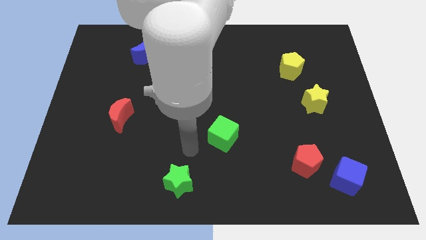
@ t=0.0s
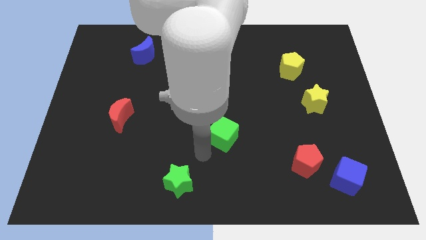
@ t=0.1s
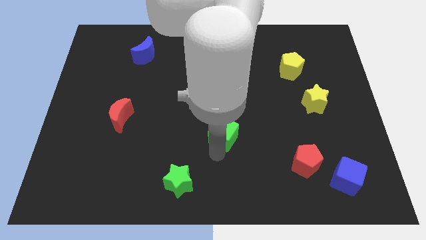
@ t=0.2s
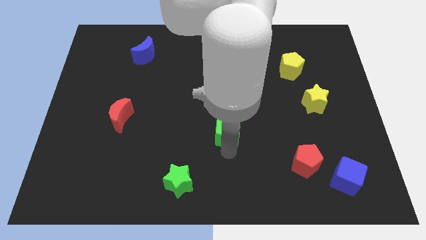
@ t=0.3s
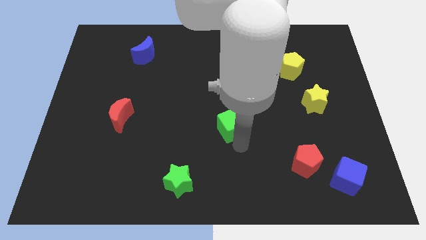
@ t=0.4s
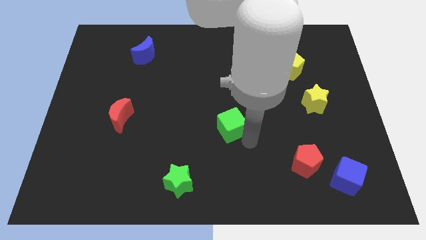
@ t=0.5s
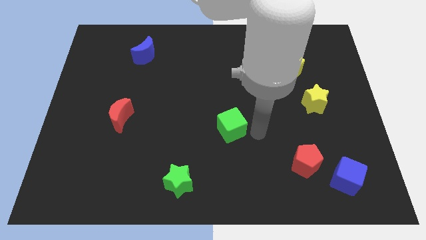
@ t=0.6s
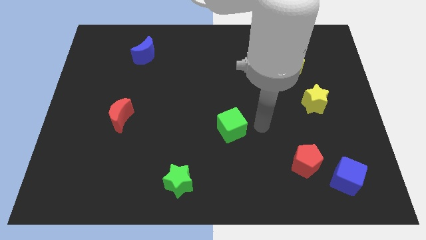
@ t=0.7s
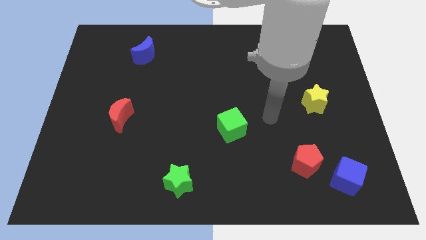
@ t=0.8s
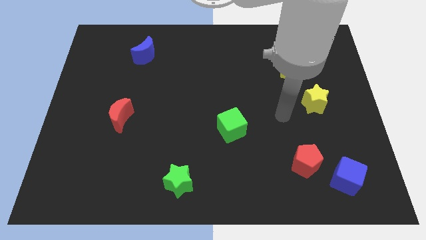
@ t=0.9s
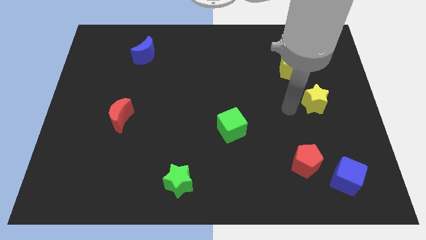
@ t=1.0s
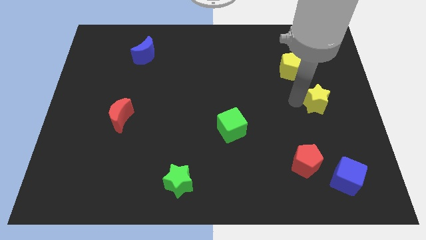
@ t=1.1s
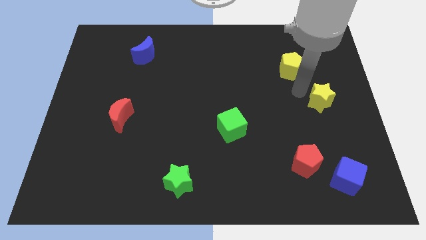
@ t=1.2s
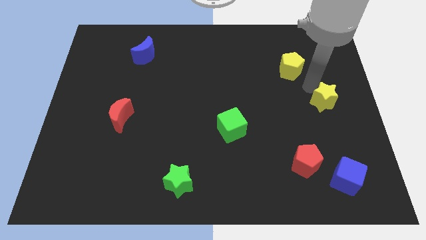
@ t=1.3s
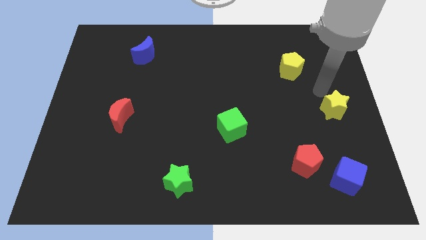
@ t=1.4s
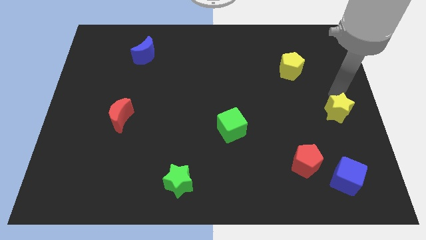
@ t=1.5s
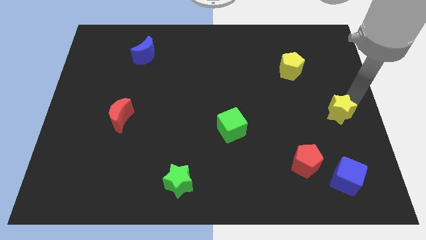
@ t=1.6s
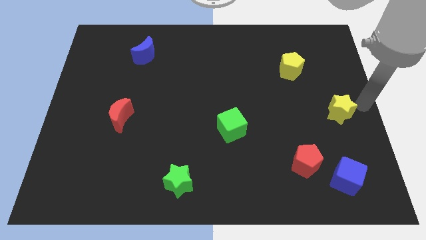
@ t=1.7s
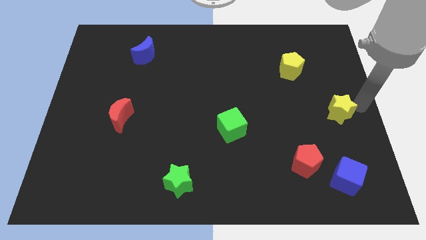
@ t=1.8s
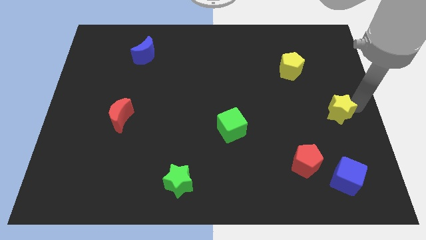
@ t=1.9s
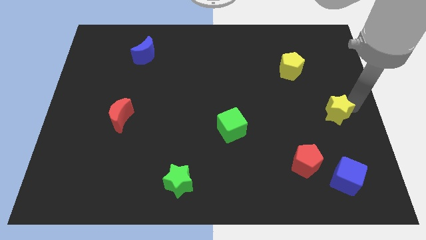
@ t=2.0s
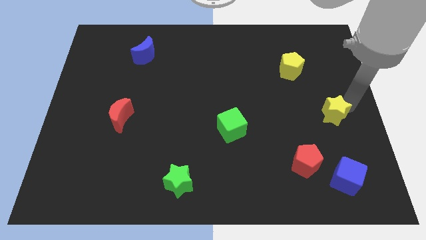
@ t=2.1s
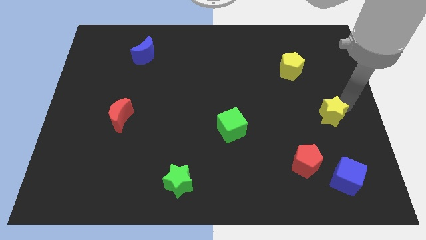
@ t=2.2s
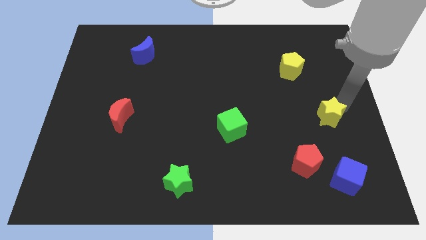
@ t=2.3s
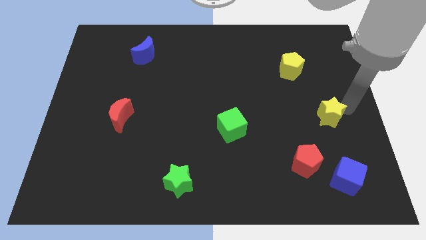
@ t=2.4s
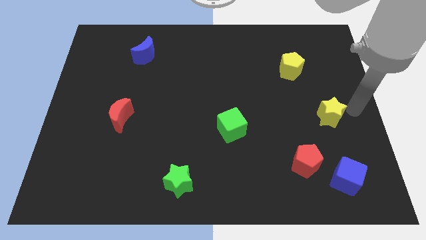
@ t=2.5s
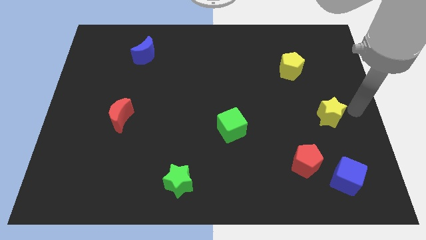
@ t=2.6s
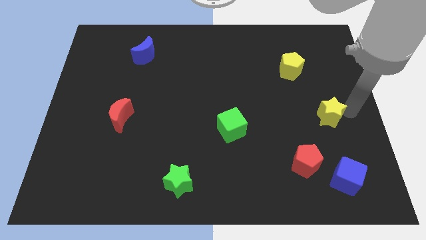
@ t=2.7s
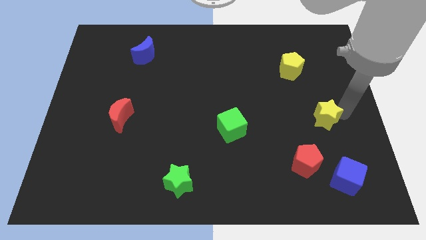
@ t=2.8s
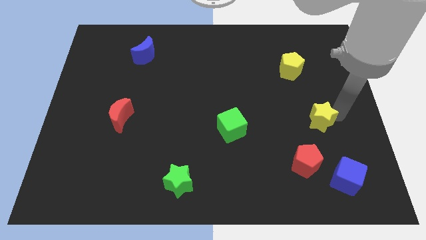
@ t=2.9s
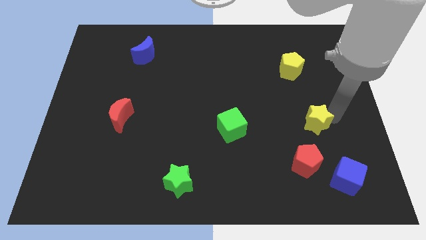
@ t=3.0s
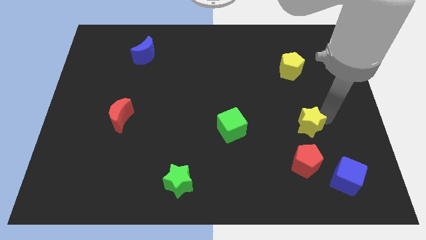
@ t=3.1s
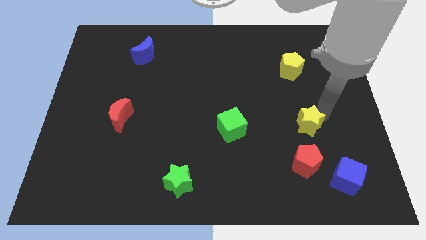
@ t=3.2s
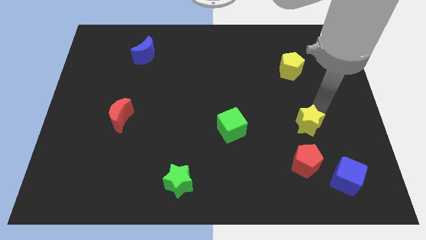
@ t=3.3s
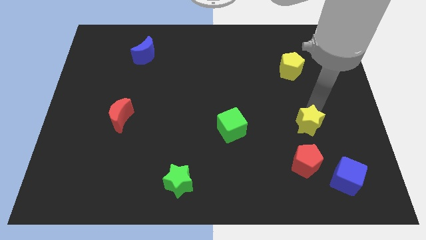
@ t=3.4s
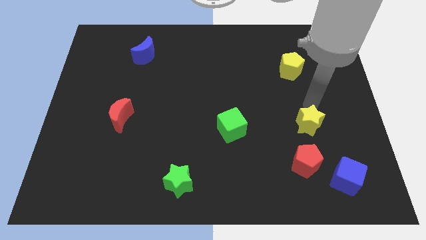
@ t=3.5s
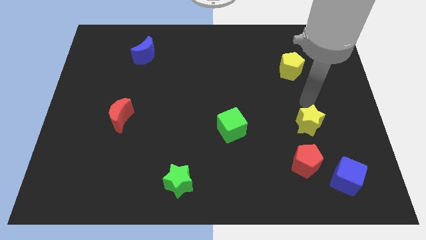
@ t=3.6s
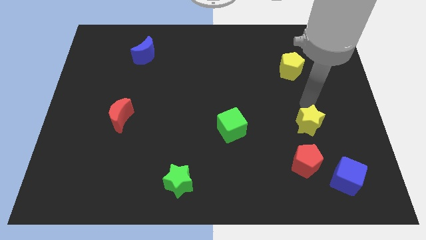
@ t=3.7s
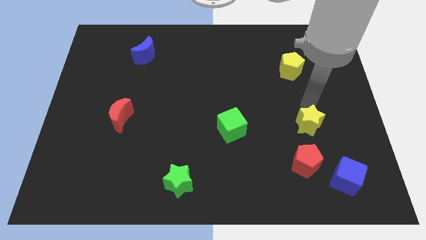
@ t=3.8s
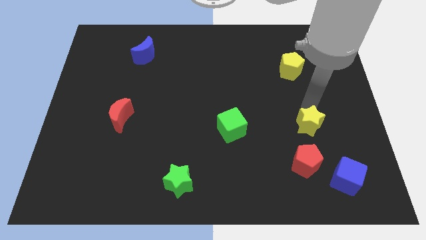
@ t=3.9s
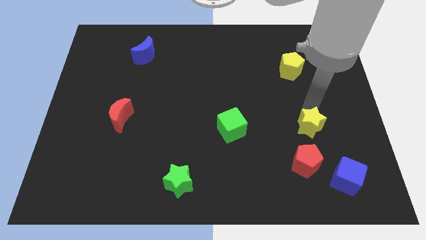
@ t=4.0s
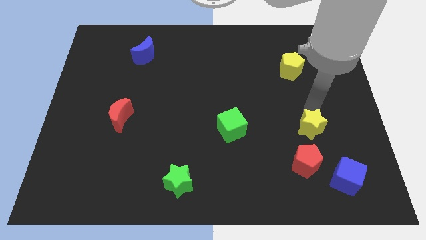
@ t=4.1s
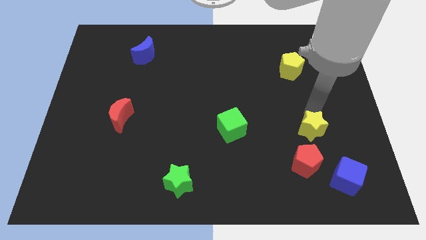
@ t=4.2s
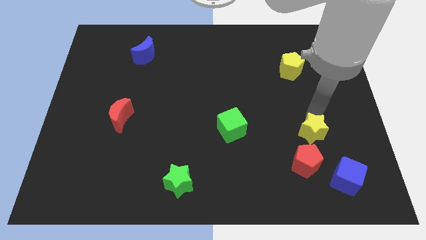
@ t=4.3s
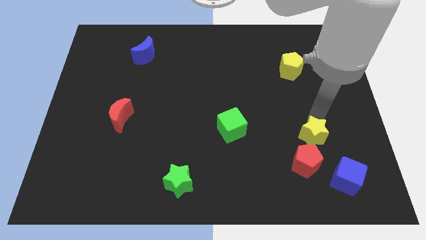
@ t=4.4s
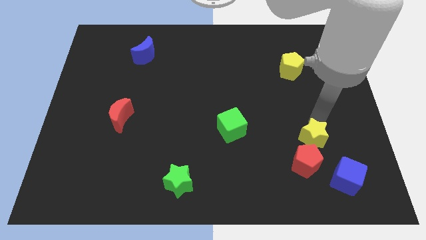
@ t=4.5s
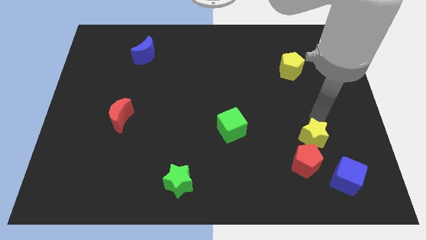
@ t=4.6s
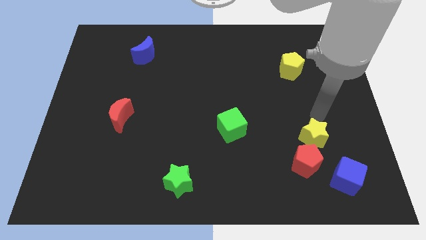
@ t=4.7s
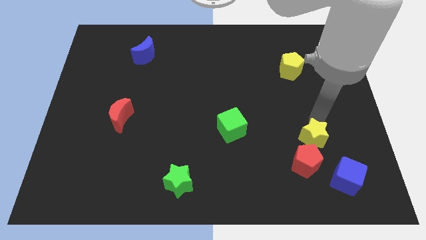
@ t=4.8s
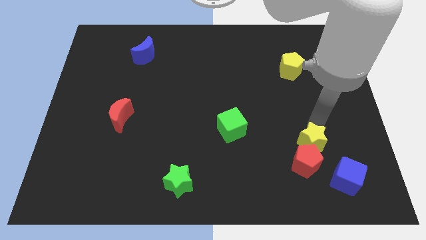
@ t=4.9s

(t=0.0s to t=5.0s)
move the yellow star towards the red pentagon

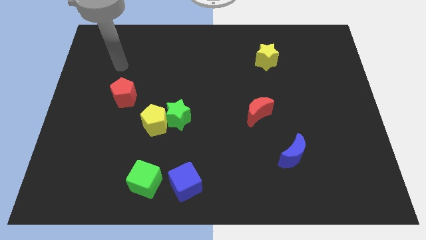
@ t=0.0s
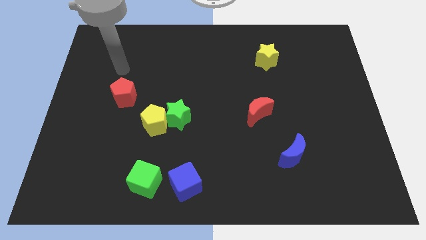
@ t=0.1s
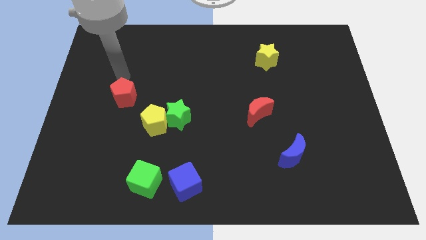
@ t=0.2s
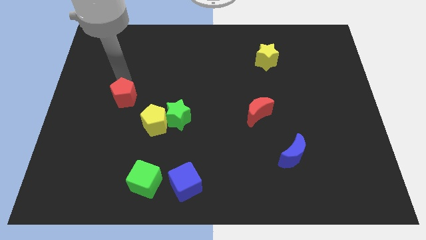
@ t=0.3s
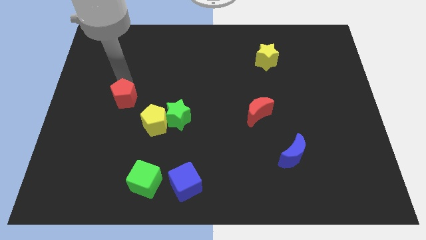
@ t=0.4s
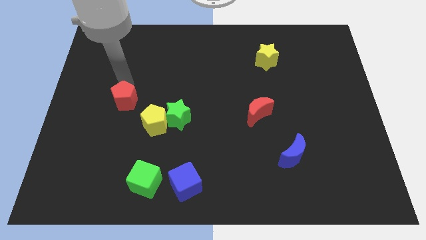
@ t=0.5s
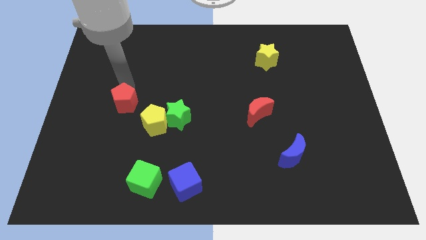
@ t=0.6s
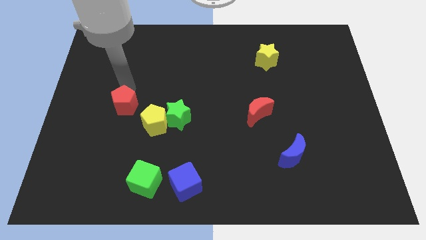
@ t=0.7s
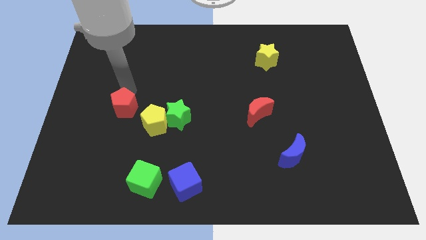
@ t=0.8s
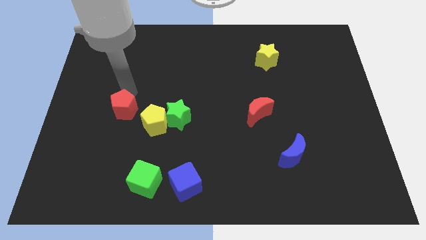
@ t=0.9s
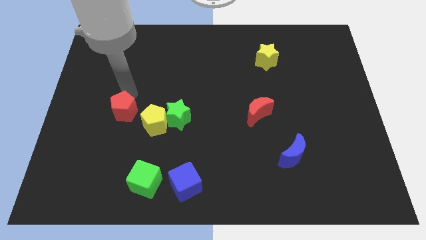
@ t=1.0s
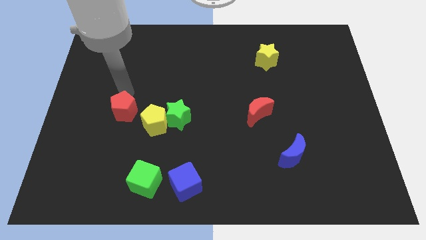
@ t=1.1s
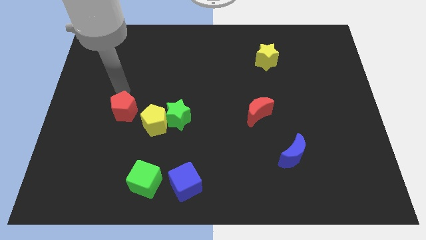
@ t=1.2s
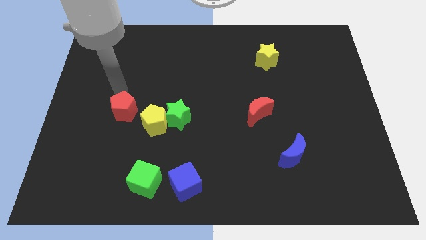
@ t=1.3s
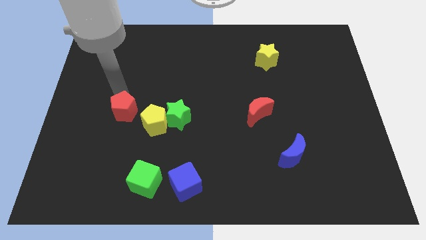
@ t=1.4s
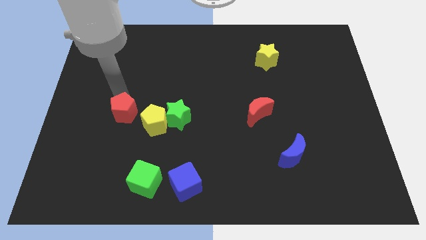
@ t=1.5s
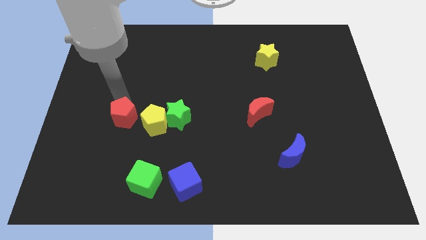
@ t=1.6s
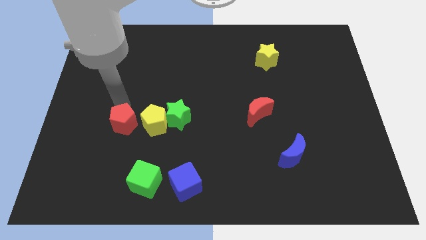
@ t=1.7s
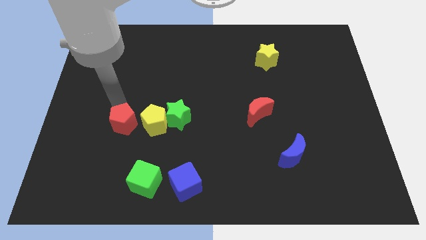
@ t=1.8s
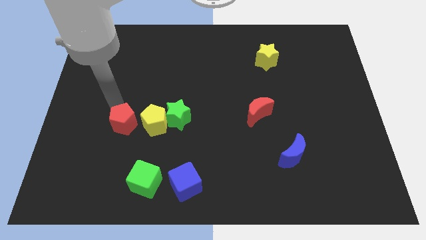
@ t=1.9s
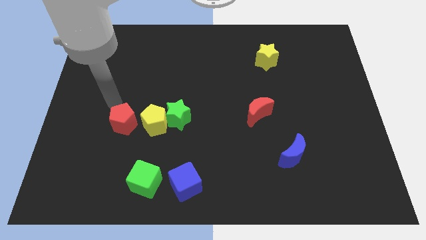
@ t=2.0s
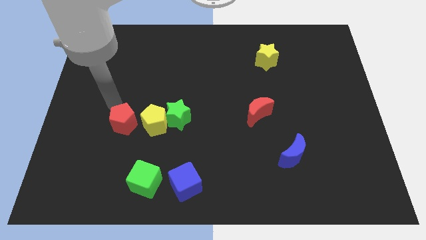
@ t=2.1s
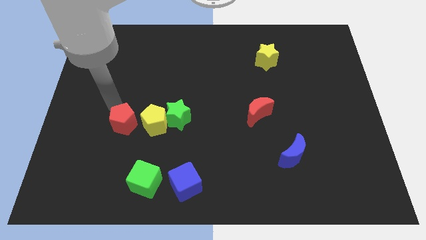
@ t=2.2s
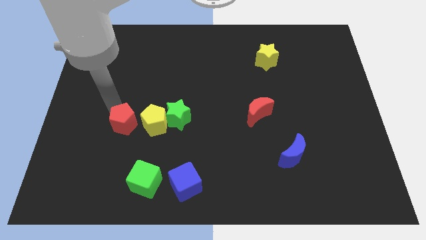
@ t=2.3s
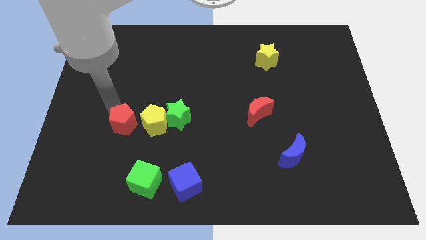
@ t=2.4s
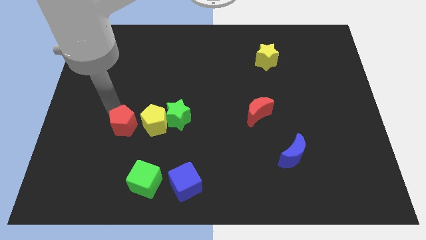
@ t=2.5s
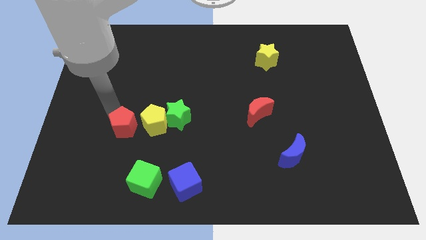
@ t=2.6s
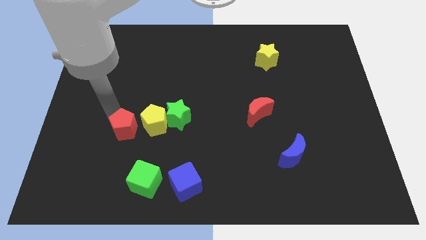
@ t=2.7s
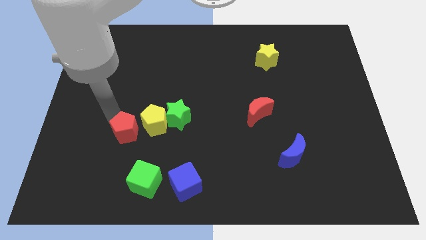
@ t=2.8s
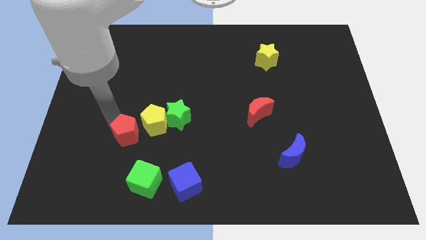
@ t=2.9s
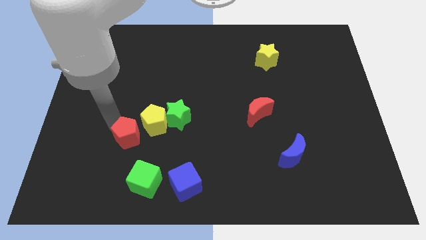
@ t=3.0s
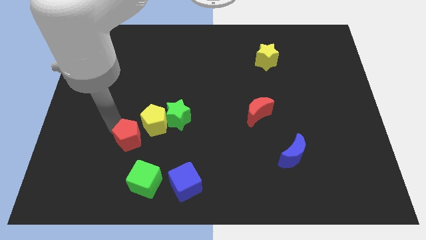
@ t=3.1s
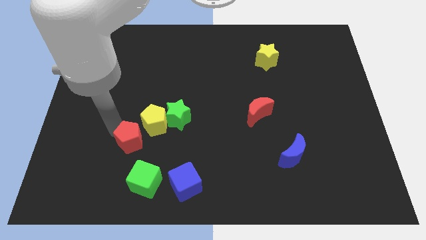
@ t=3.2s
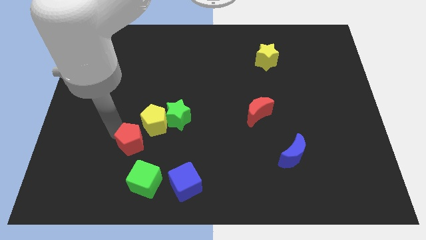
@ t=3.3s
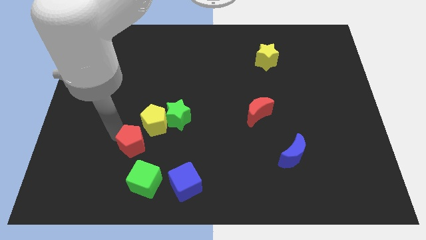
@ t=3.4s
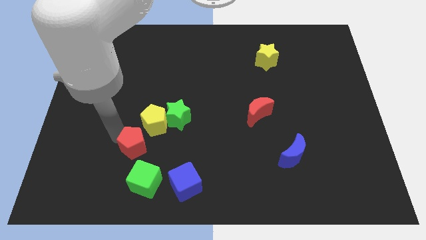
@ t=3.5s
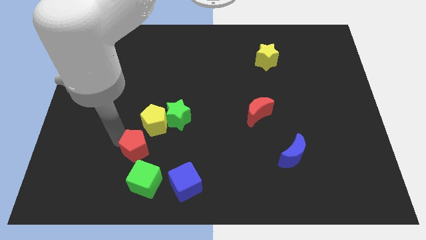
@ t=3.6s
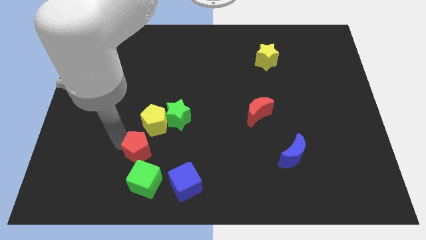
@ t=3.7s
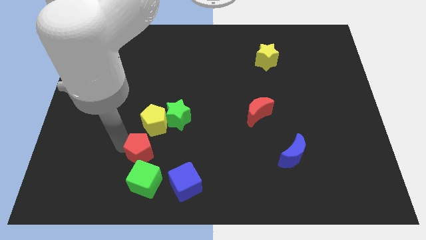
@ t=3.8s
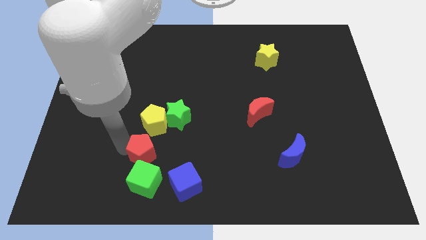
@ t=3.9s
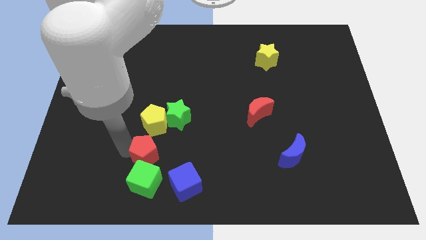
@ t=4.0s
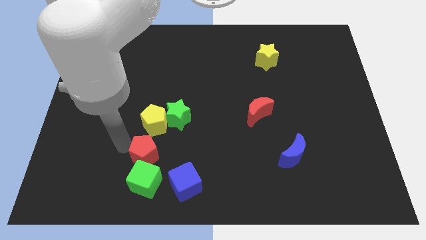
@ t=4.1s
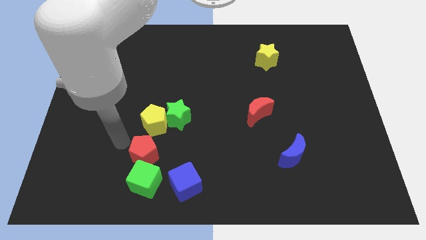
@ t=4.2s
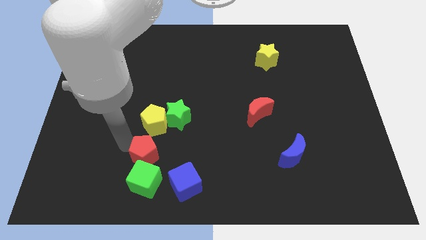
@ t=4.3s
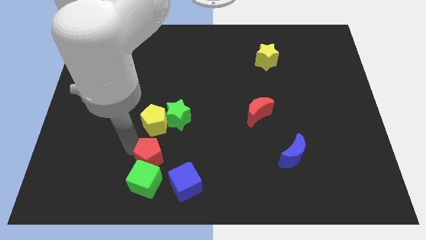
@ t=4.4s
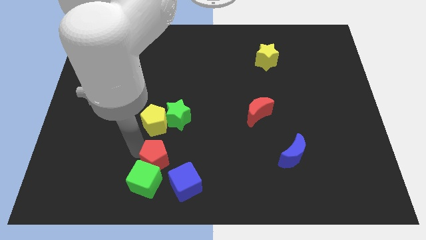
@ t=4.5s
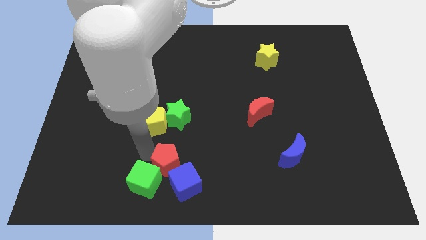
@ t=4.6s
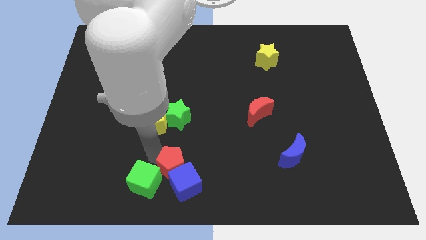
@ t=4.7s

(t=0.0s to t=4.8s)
move the red pentagon next to the blue cube
